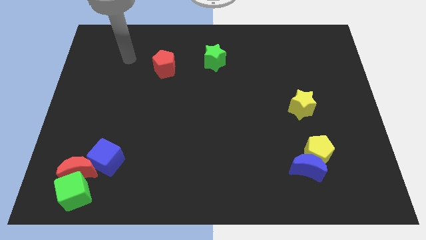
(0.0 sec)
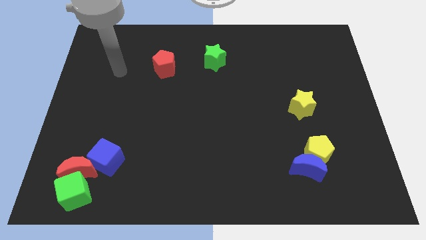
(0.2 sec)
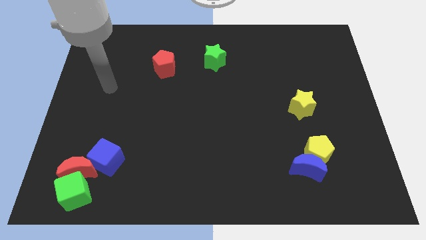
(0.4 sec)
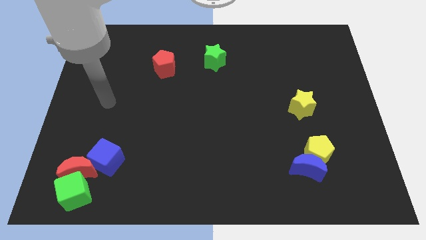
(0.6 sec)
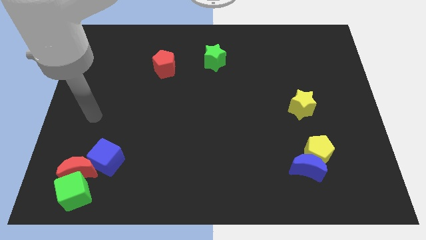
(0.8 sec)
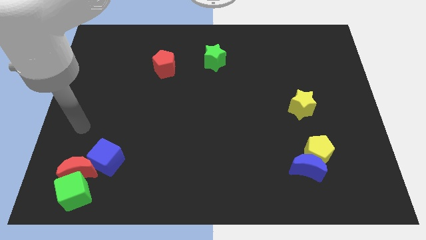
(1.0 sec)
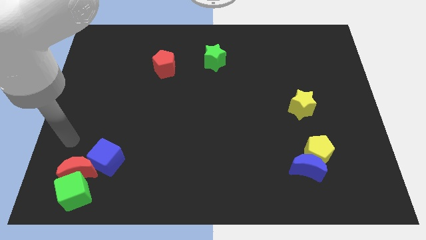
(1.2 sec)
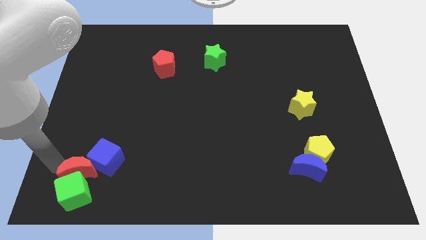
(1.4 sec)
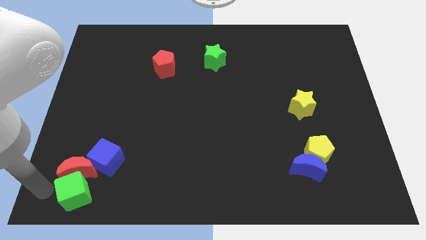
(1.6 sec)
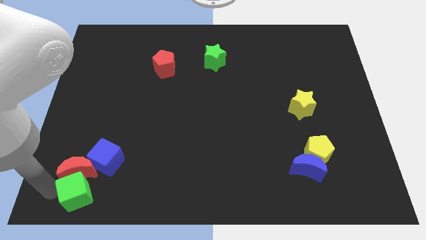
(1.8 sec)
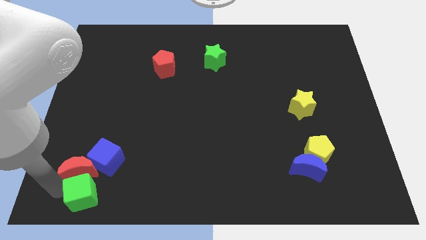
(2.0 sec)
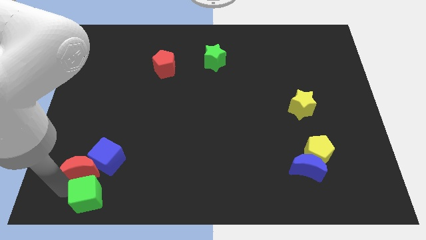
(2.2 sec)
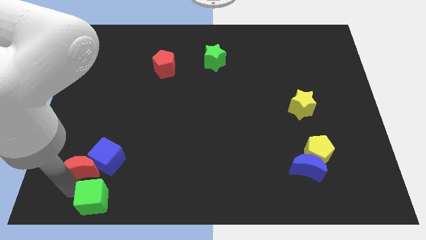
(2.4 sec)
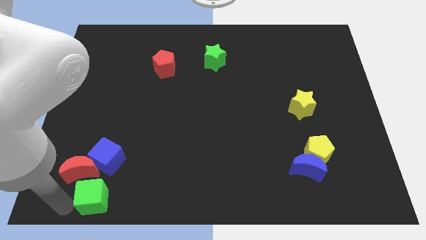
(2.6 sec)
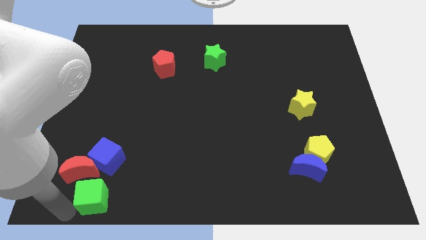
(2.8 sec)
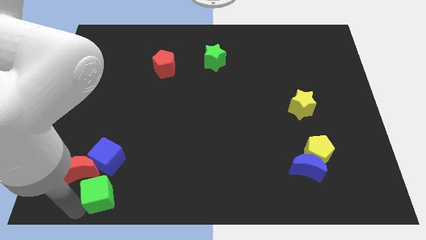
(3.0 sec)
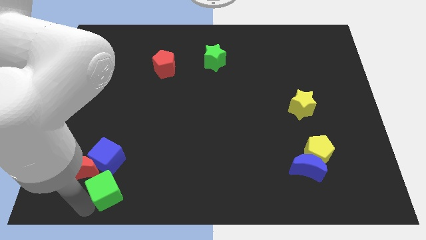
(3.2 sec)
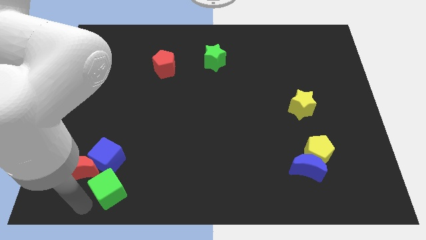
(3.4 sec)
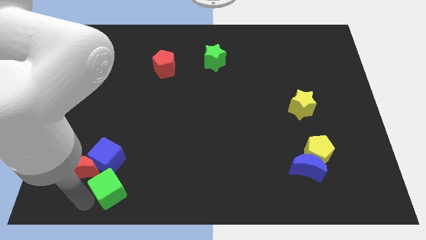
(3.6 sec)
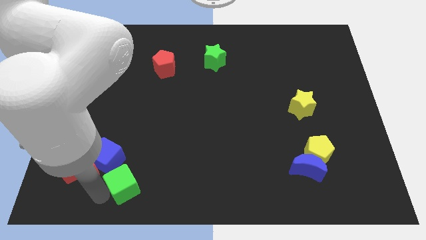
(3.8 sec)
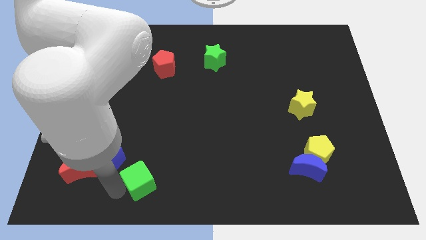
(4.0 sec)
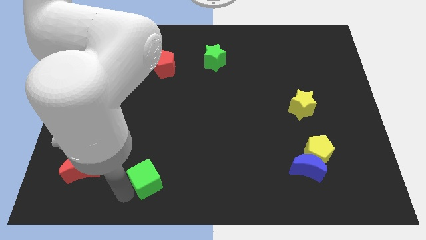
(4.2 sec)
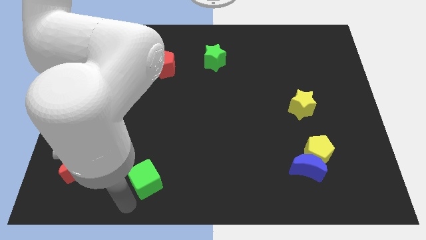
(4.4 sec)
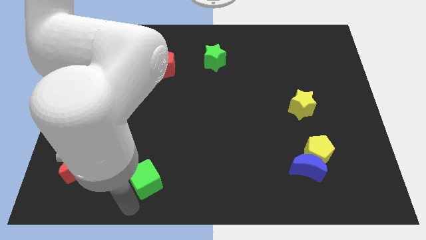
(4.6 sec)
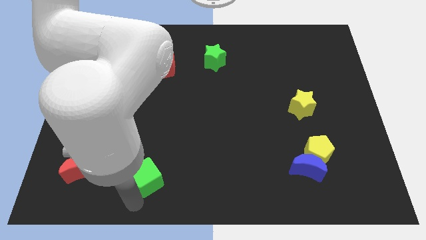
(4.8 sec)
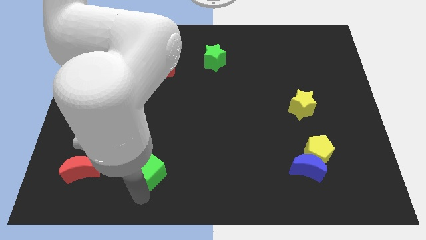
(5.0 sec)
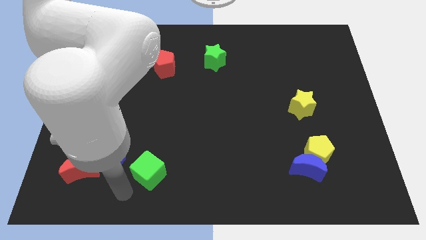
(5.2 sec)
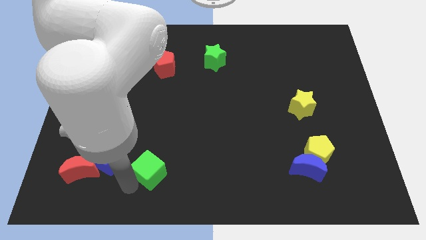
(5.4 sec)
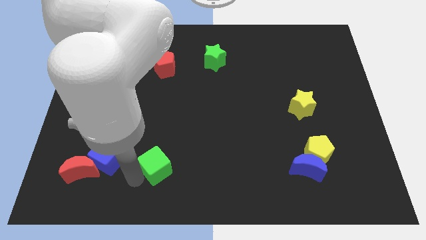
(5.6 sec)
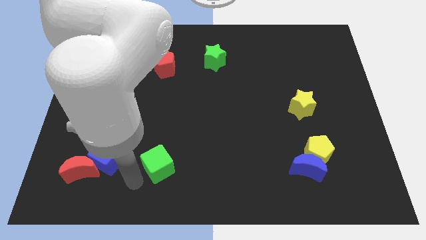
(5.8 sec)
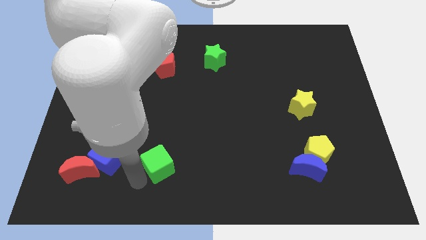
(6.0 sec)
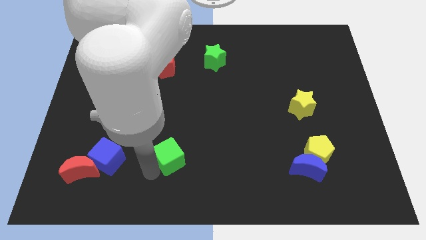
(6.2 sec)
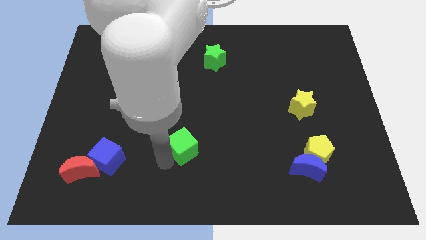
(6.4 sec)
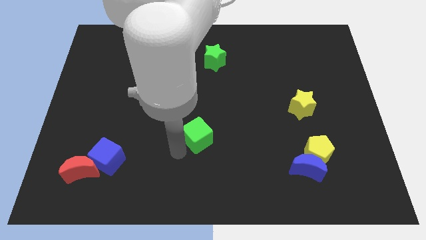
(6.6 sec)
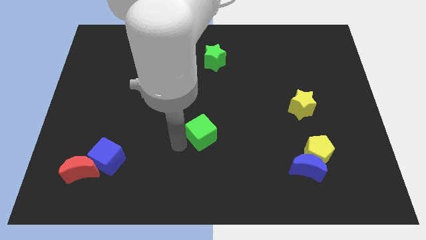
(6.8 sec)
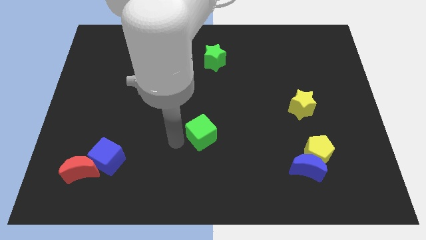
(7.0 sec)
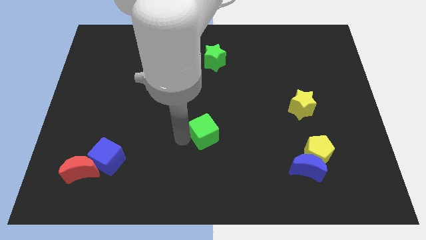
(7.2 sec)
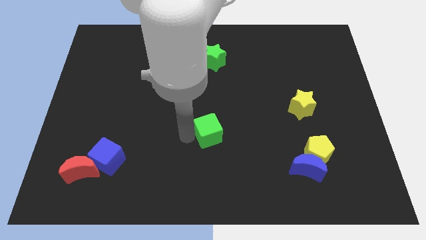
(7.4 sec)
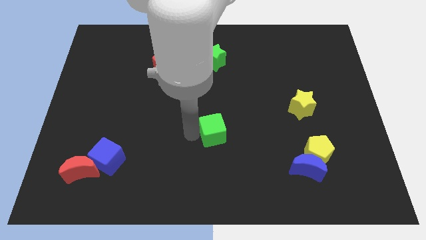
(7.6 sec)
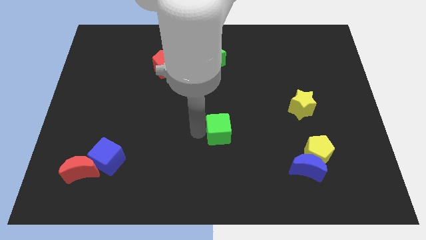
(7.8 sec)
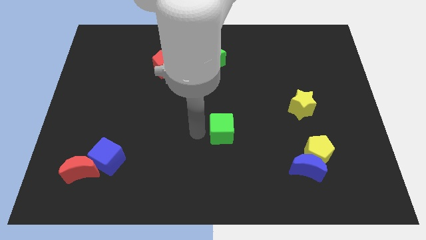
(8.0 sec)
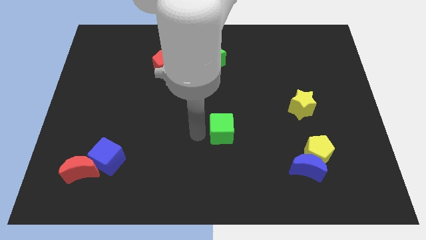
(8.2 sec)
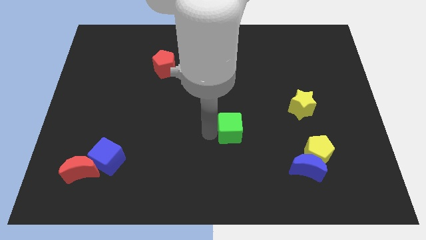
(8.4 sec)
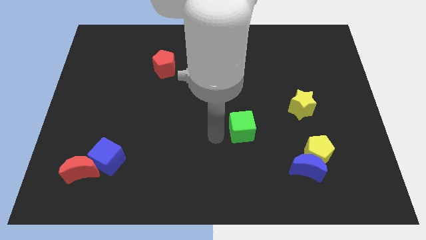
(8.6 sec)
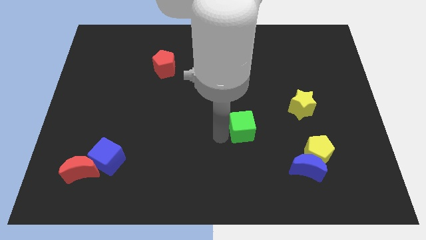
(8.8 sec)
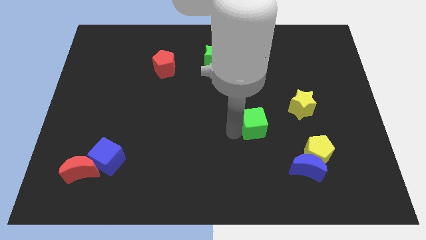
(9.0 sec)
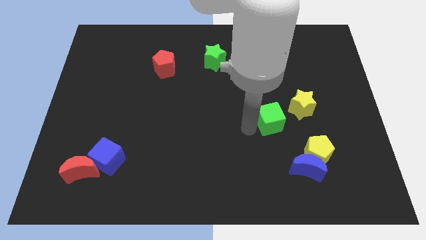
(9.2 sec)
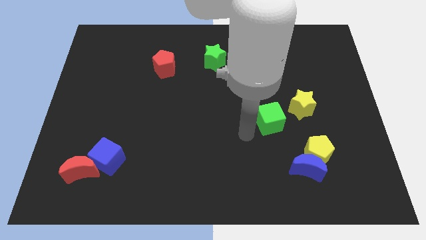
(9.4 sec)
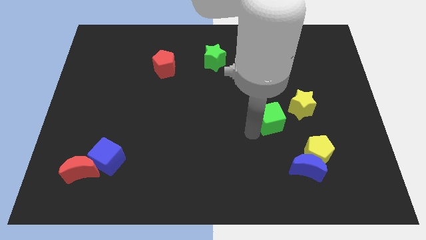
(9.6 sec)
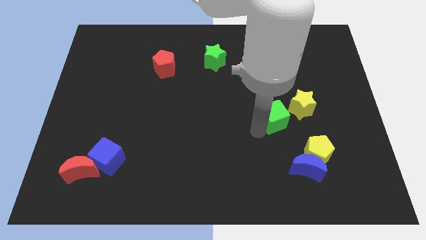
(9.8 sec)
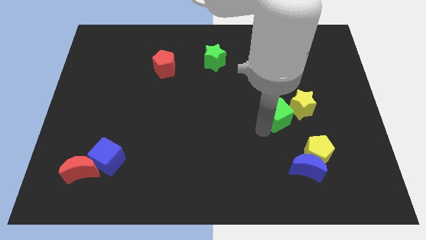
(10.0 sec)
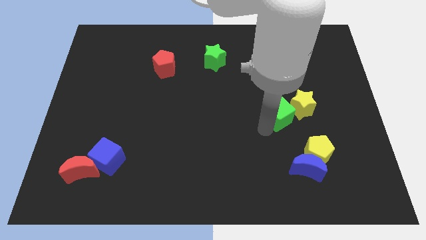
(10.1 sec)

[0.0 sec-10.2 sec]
slide the green cube to the yellow star

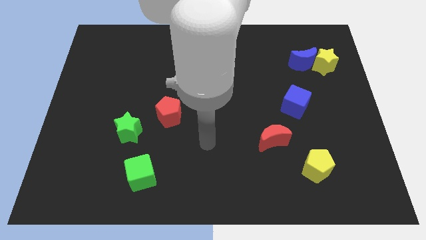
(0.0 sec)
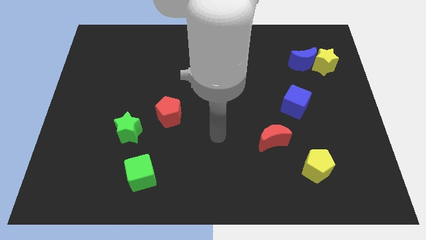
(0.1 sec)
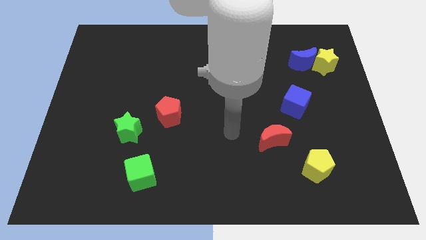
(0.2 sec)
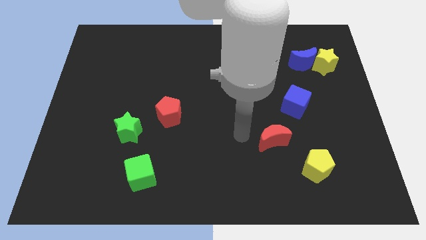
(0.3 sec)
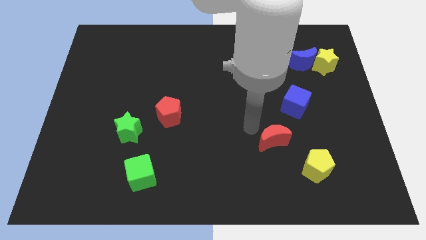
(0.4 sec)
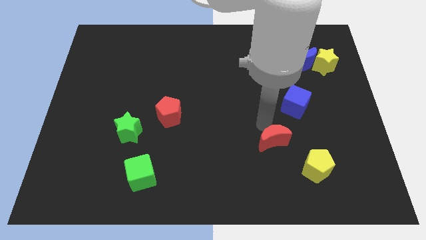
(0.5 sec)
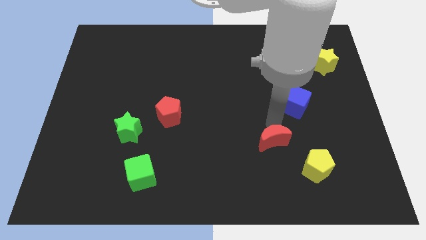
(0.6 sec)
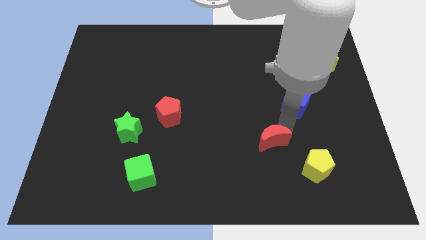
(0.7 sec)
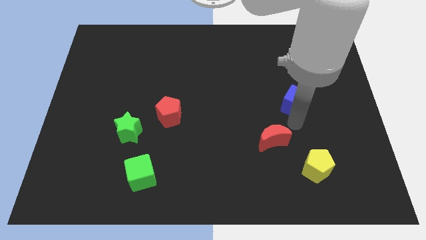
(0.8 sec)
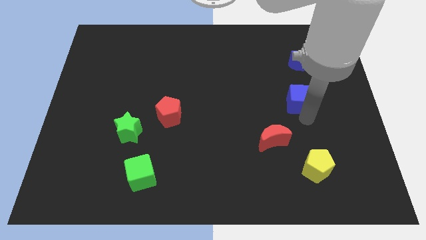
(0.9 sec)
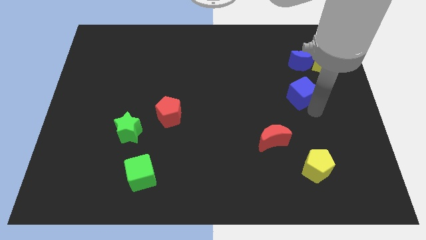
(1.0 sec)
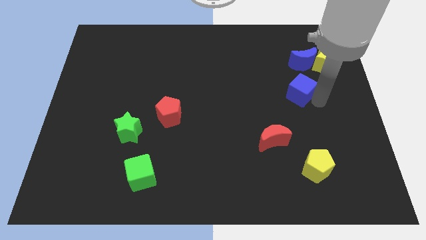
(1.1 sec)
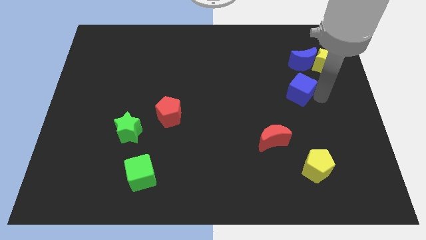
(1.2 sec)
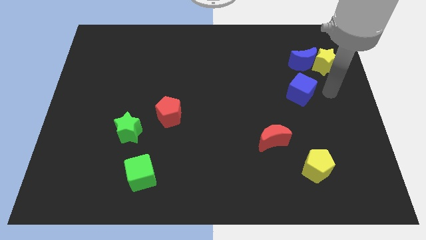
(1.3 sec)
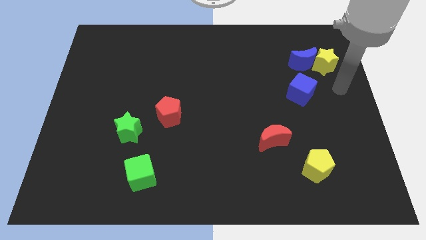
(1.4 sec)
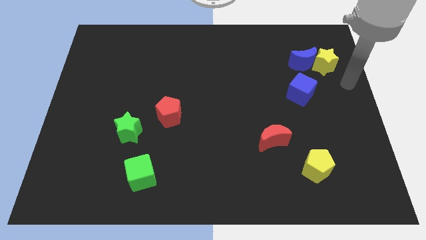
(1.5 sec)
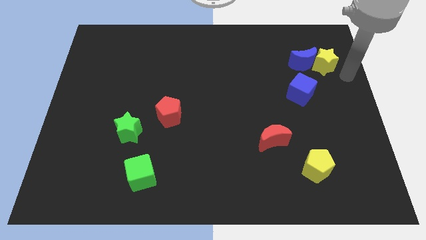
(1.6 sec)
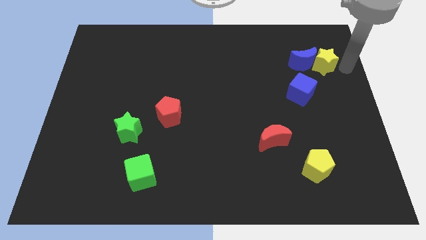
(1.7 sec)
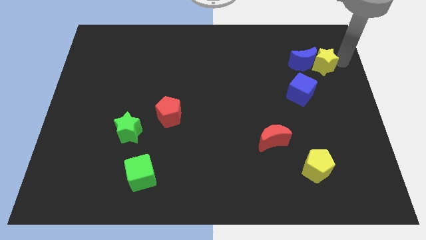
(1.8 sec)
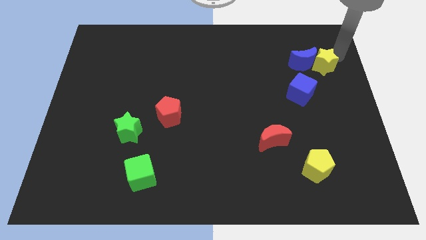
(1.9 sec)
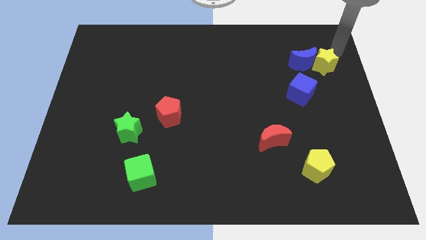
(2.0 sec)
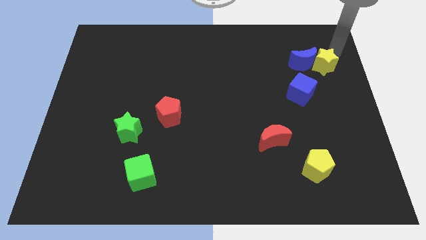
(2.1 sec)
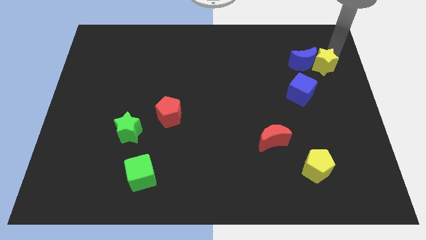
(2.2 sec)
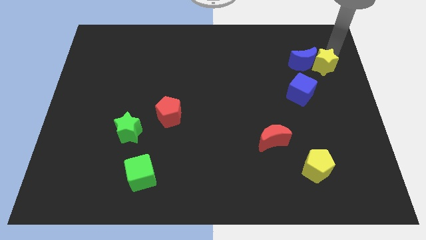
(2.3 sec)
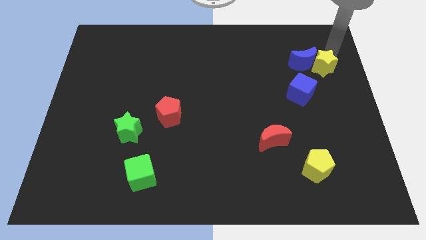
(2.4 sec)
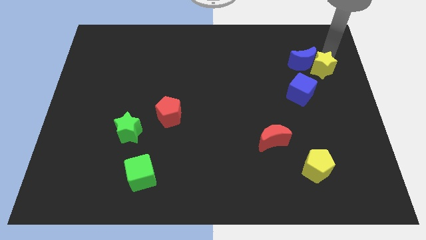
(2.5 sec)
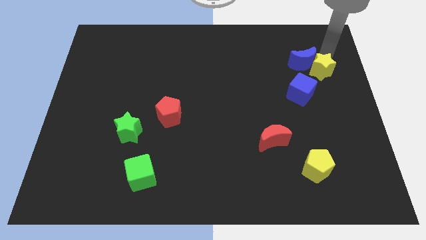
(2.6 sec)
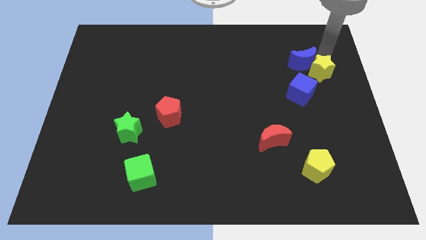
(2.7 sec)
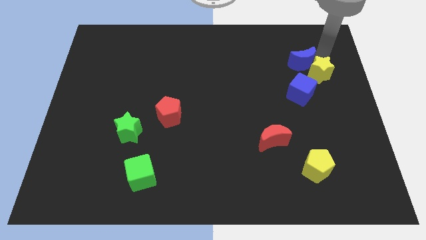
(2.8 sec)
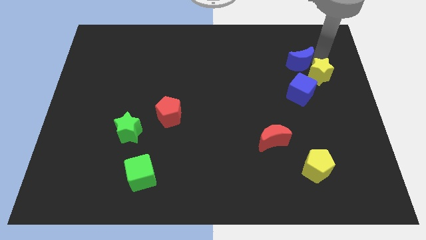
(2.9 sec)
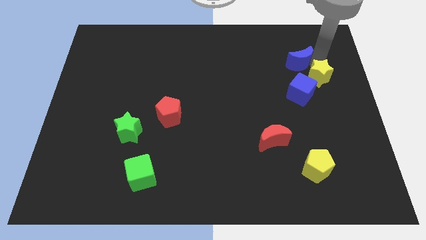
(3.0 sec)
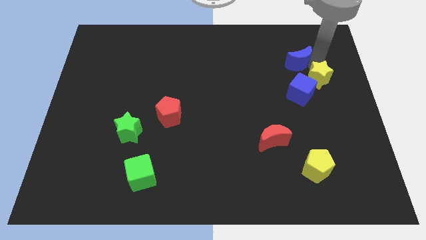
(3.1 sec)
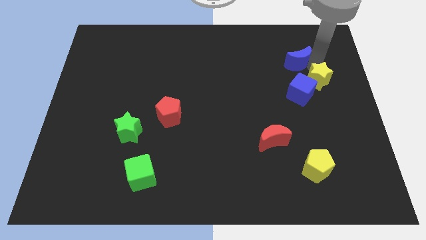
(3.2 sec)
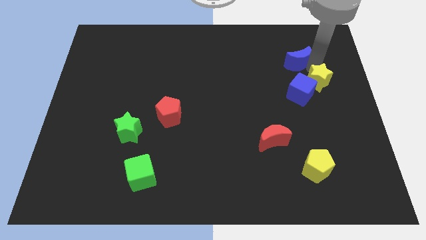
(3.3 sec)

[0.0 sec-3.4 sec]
push the yellow star to the blue cube
